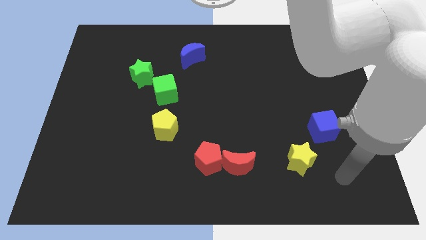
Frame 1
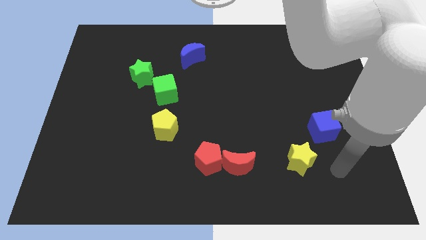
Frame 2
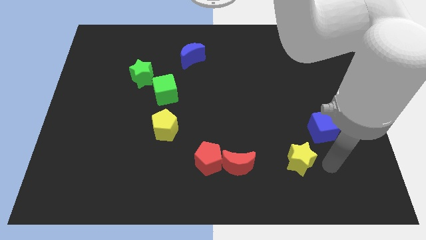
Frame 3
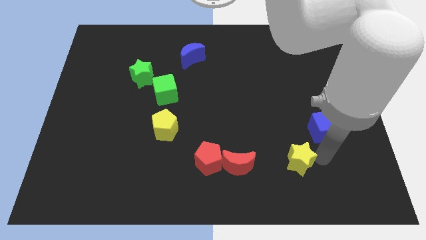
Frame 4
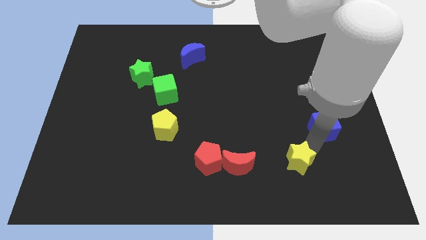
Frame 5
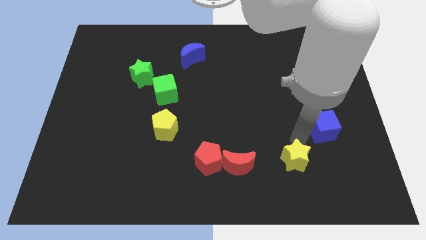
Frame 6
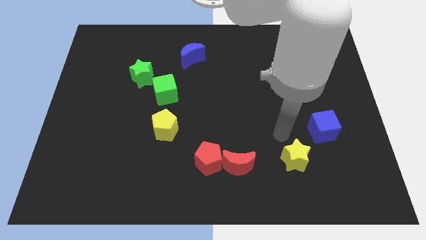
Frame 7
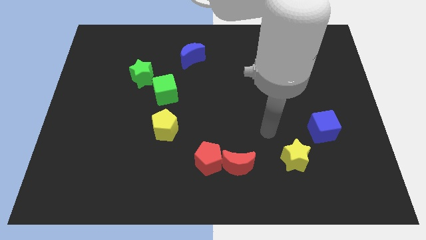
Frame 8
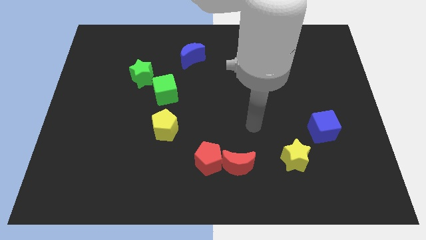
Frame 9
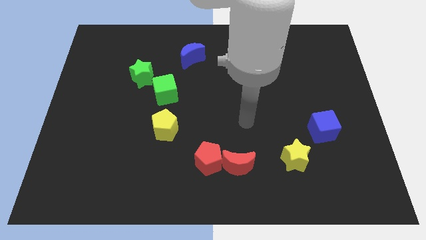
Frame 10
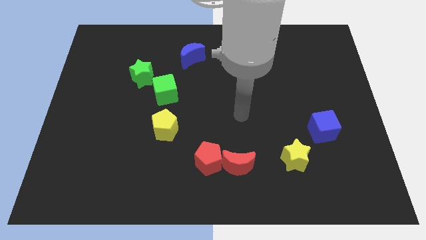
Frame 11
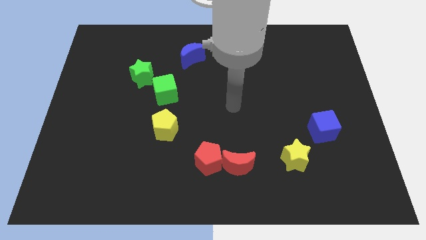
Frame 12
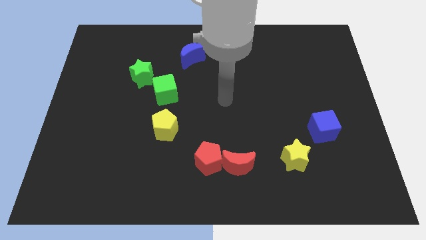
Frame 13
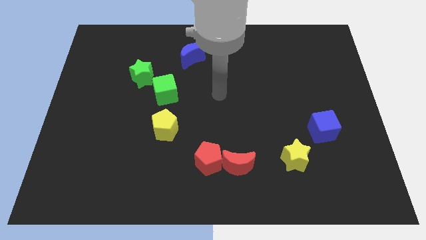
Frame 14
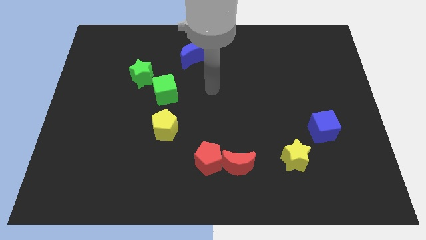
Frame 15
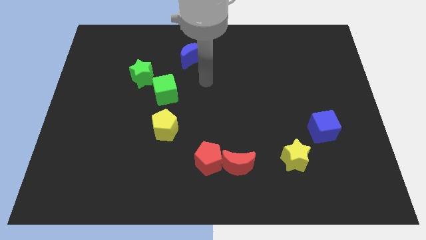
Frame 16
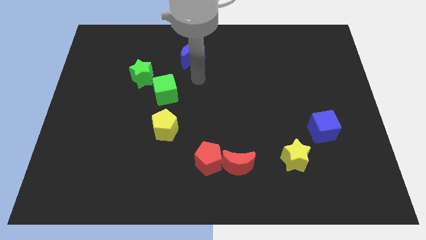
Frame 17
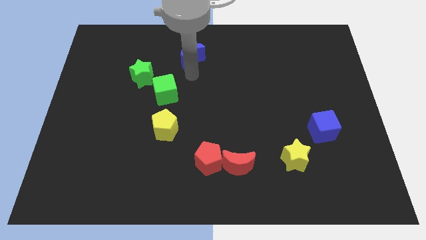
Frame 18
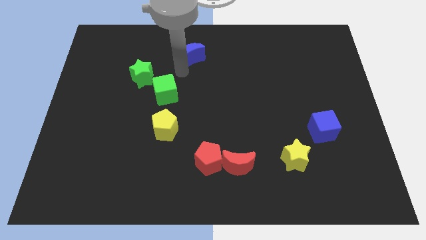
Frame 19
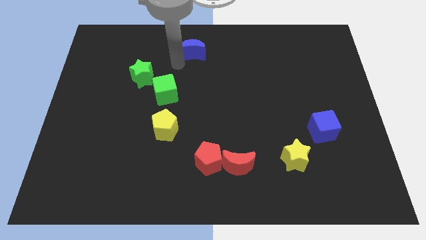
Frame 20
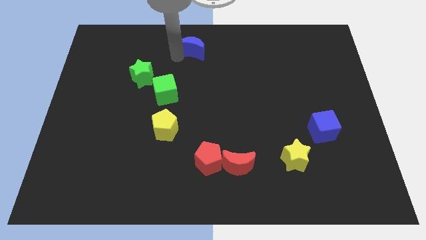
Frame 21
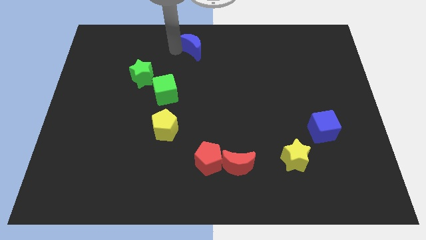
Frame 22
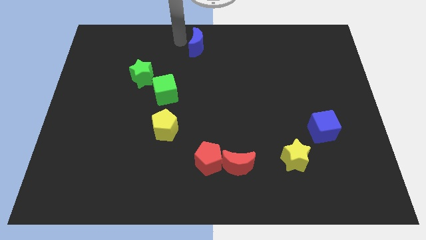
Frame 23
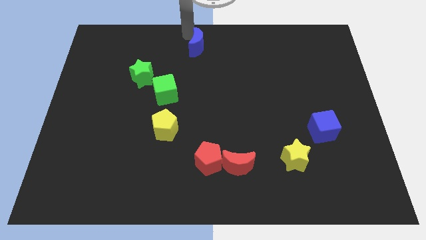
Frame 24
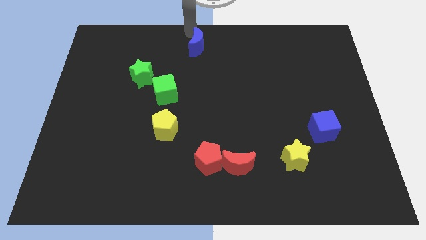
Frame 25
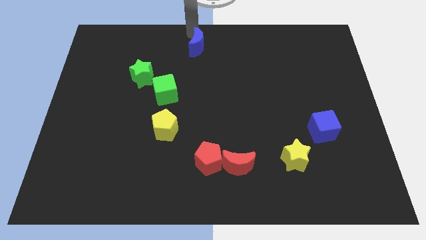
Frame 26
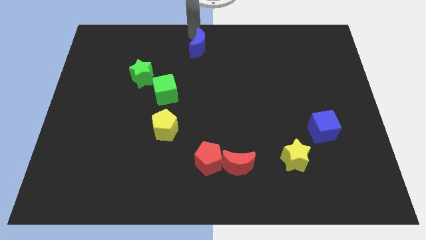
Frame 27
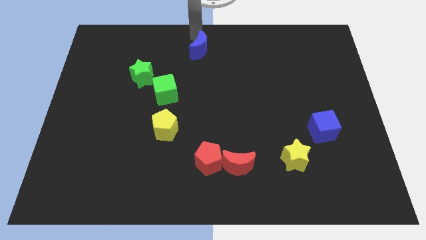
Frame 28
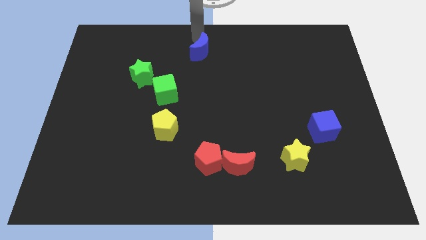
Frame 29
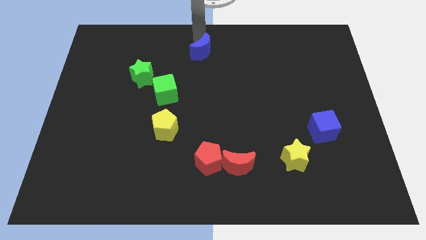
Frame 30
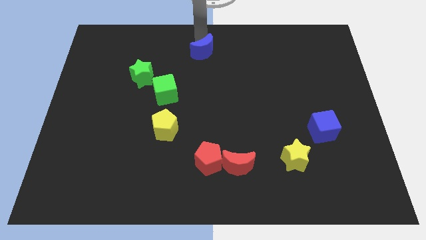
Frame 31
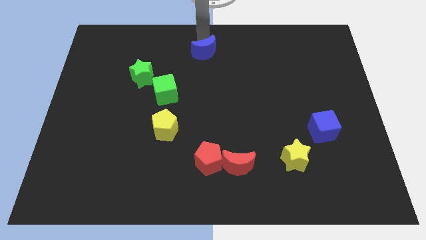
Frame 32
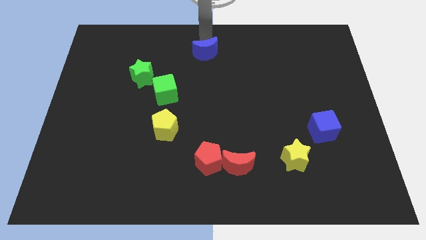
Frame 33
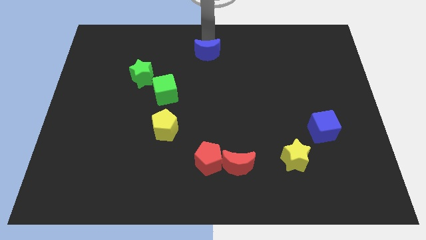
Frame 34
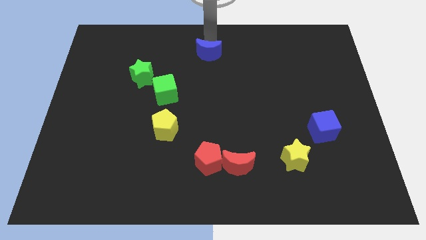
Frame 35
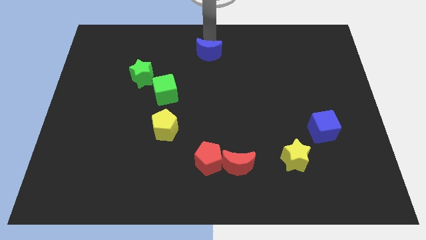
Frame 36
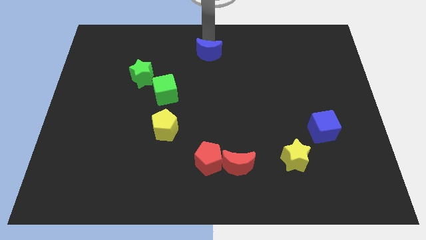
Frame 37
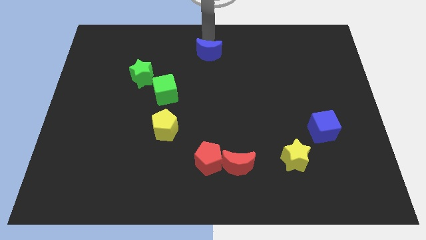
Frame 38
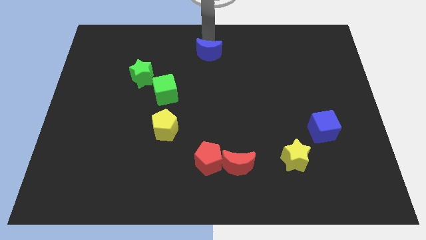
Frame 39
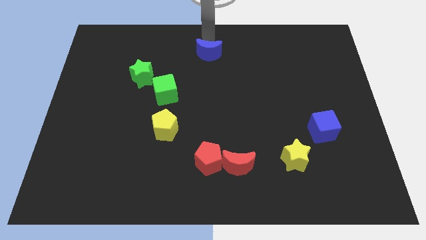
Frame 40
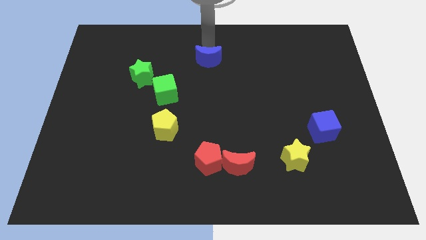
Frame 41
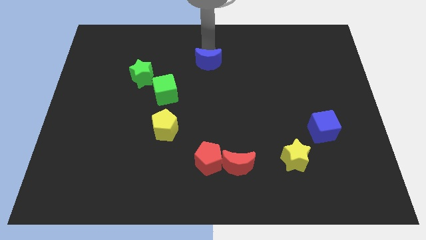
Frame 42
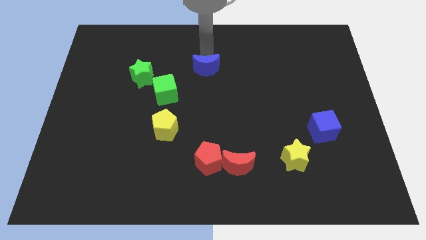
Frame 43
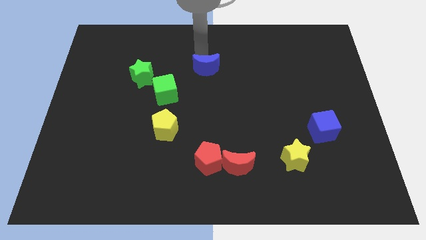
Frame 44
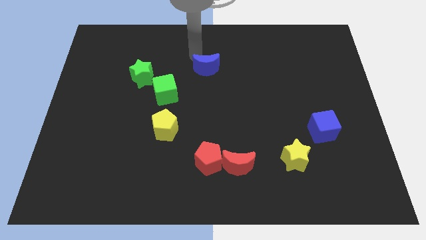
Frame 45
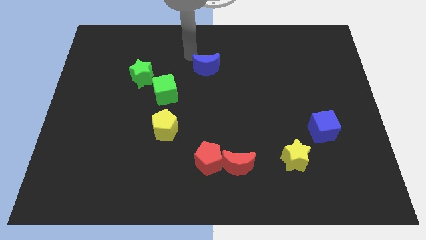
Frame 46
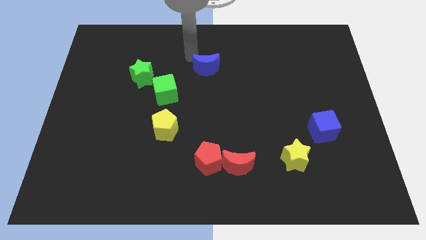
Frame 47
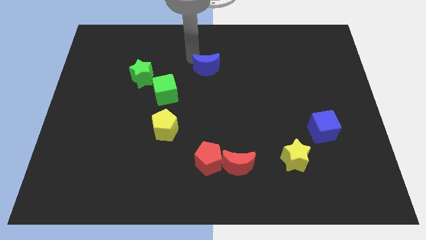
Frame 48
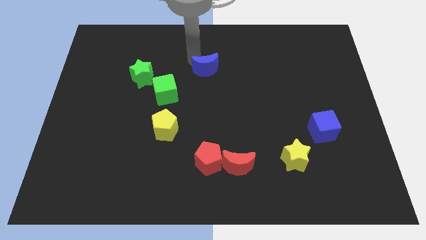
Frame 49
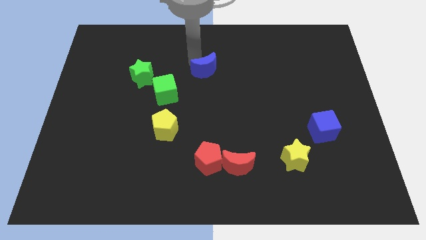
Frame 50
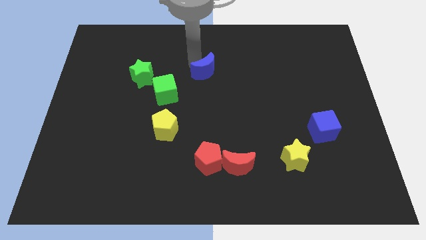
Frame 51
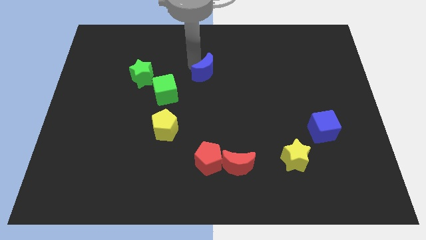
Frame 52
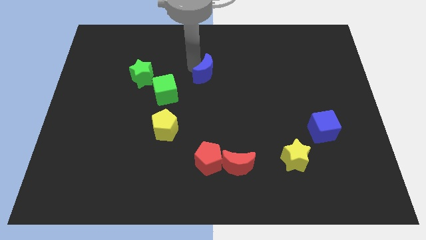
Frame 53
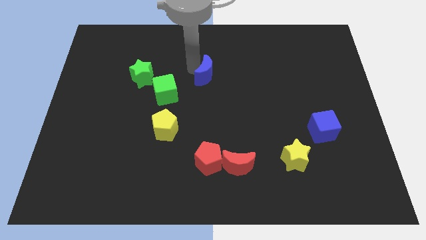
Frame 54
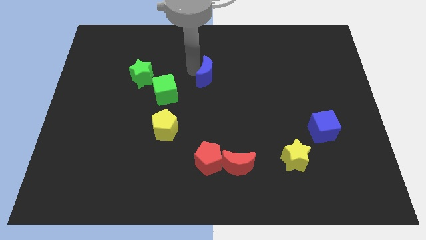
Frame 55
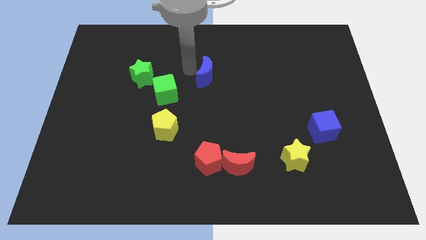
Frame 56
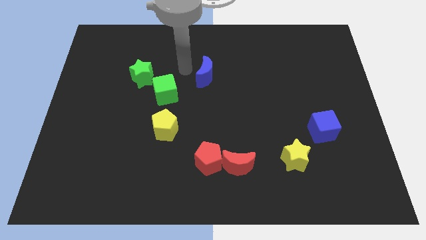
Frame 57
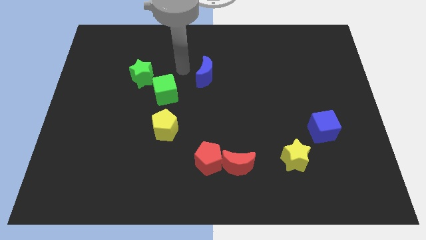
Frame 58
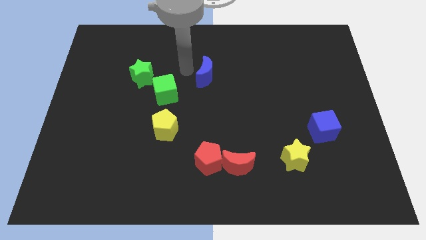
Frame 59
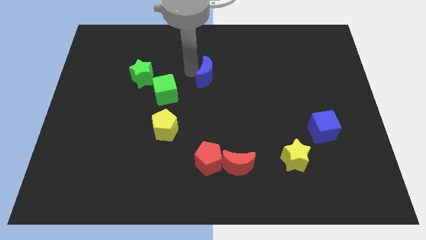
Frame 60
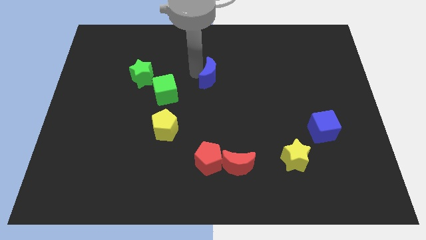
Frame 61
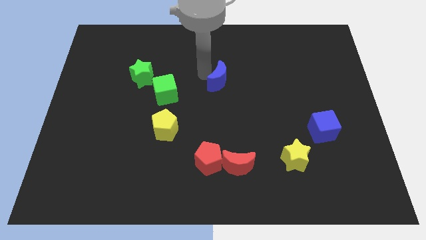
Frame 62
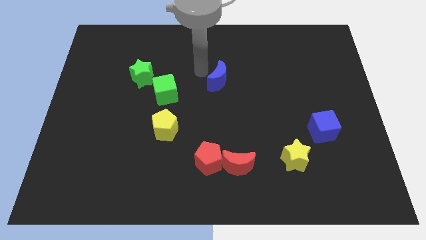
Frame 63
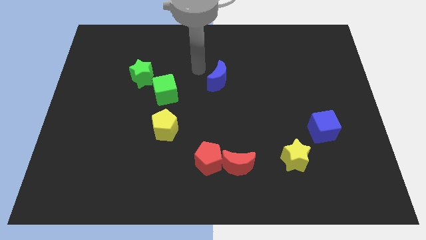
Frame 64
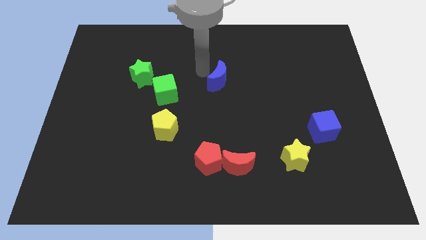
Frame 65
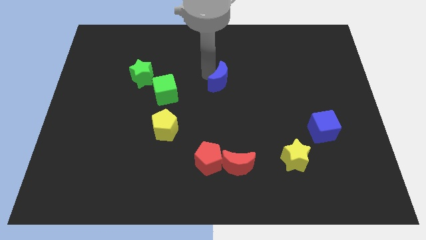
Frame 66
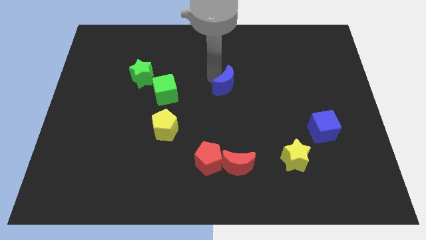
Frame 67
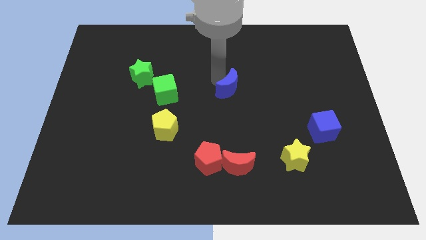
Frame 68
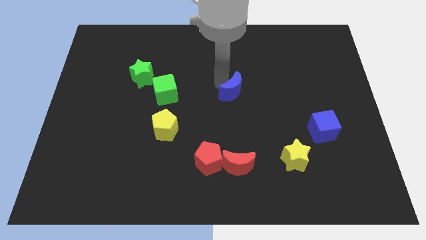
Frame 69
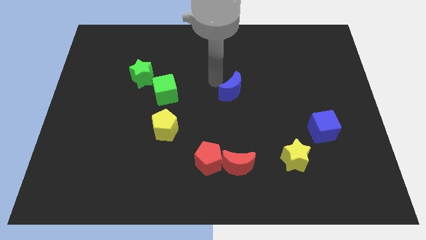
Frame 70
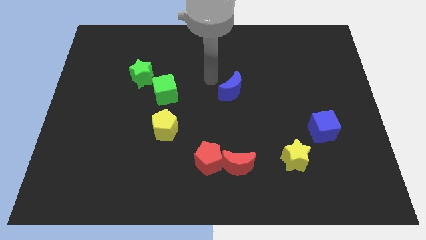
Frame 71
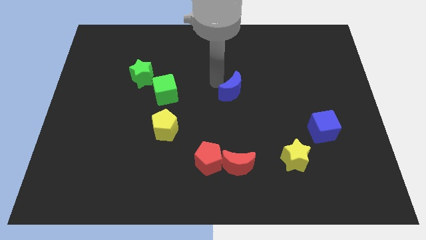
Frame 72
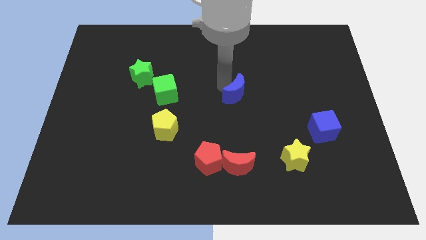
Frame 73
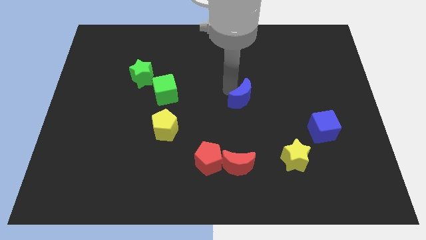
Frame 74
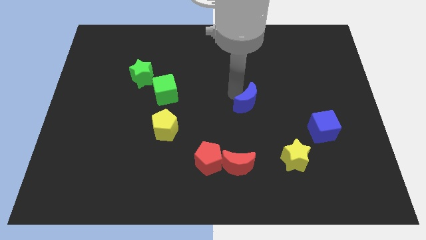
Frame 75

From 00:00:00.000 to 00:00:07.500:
move the blue moon downwards and then to the right

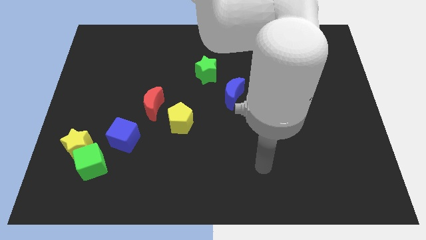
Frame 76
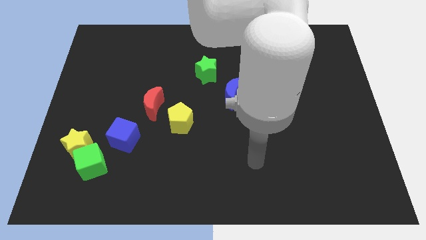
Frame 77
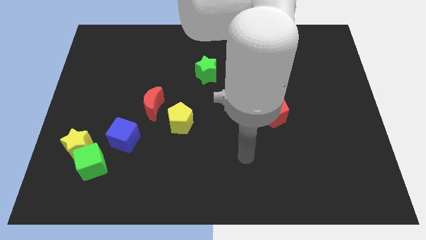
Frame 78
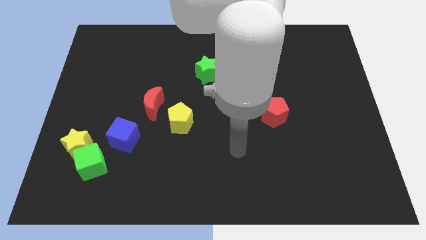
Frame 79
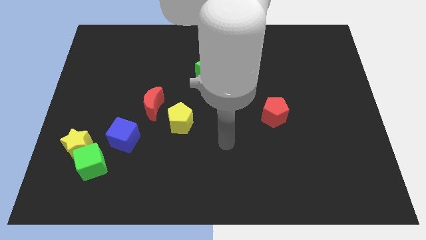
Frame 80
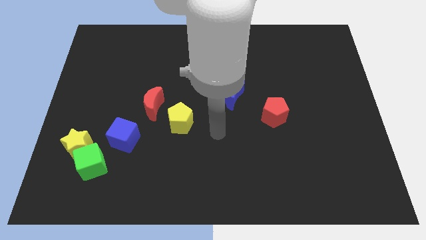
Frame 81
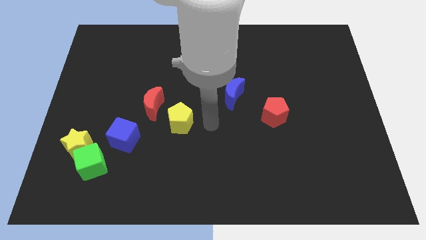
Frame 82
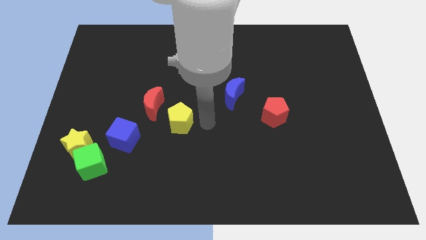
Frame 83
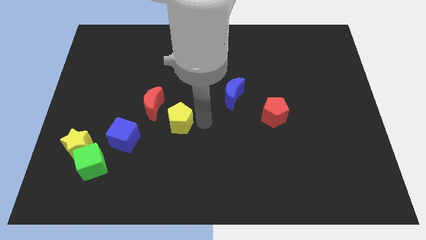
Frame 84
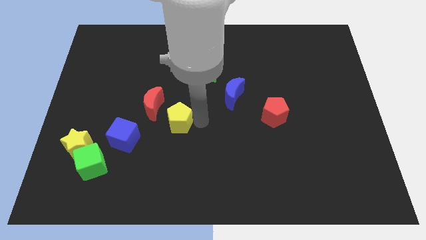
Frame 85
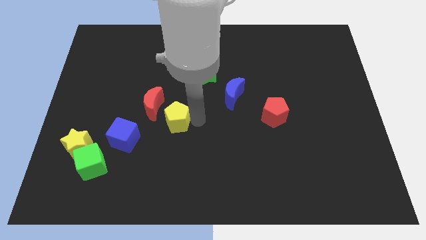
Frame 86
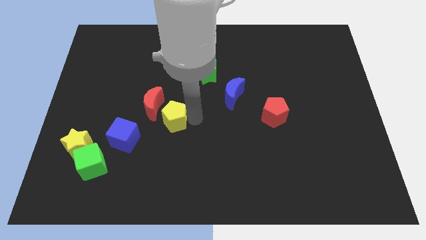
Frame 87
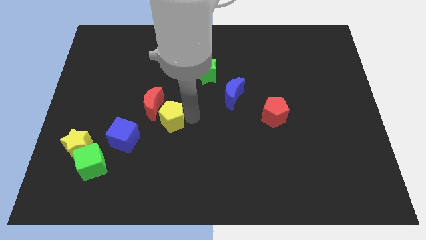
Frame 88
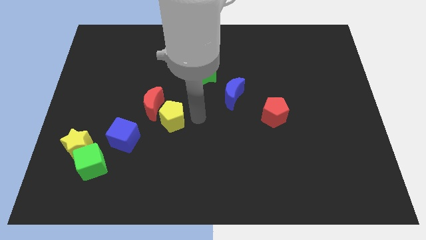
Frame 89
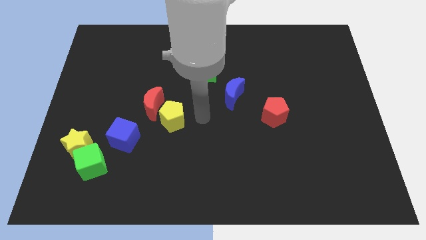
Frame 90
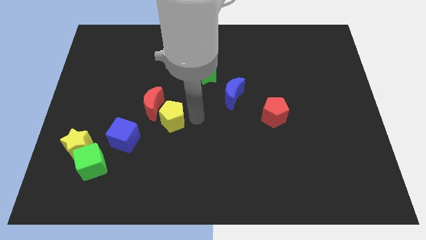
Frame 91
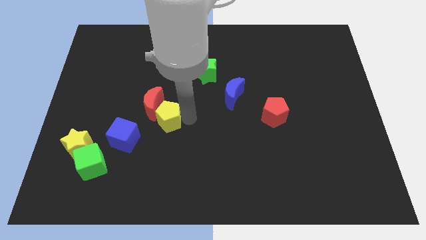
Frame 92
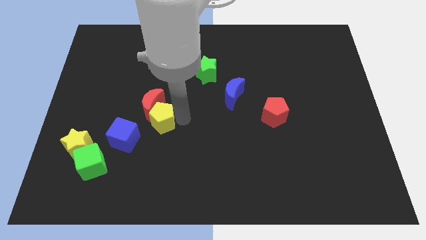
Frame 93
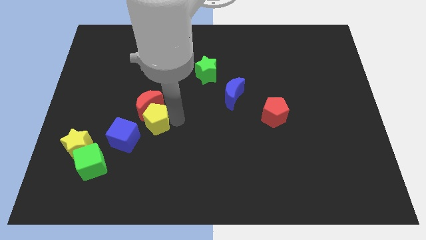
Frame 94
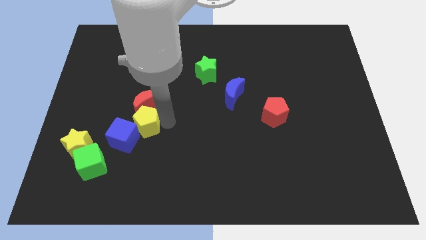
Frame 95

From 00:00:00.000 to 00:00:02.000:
push the yellow pentagon to the left a little bit
